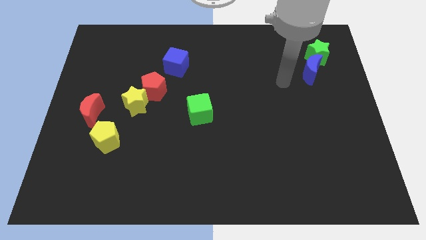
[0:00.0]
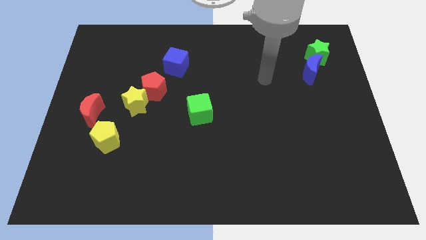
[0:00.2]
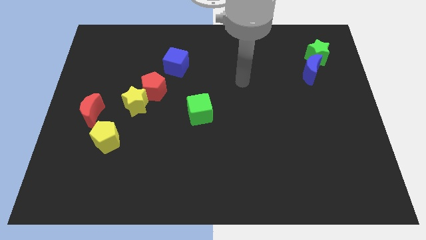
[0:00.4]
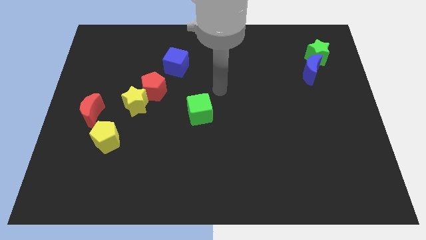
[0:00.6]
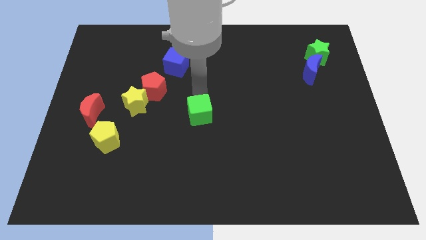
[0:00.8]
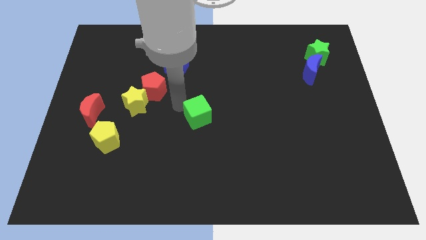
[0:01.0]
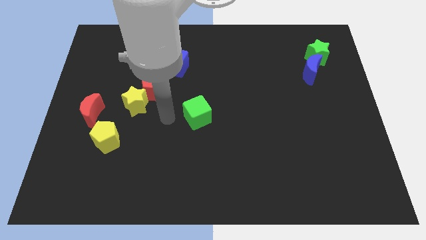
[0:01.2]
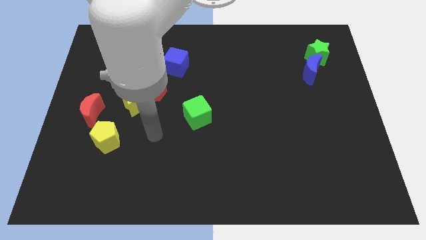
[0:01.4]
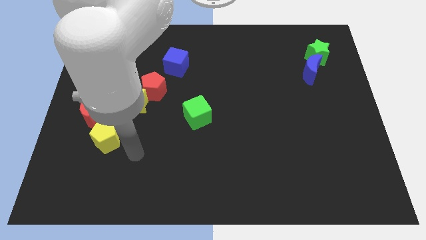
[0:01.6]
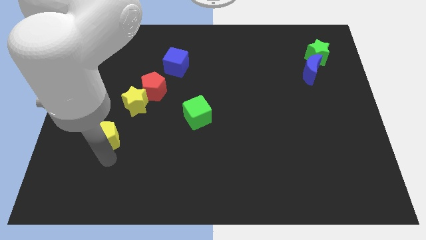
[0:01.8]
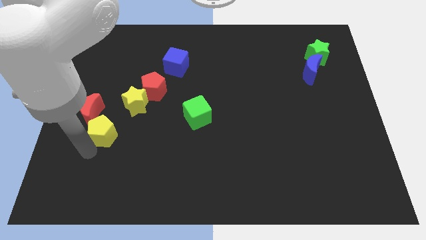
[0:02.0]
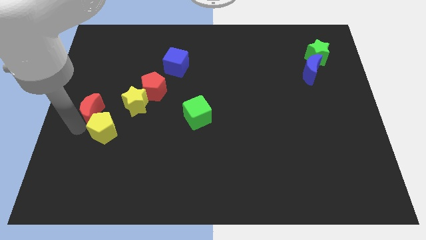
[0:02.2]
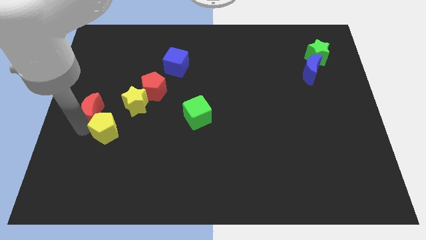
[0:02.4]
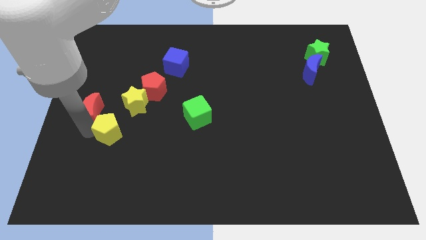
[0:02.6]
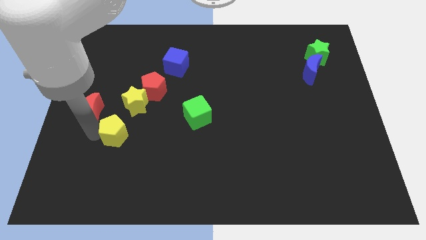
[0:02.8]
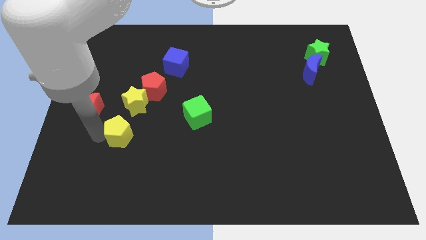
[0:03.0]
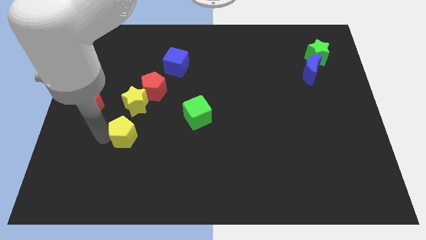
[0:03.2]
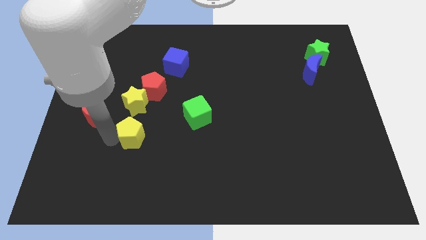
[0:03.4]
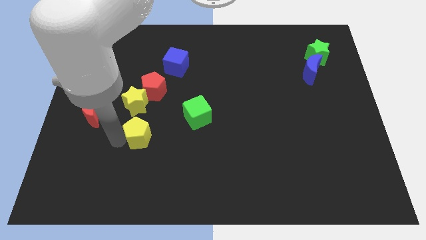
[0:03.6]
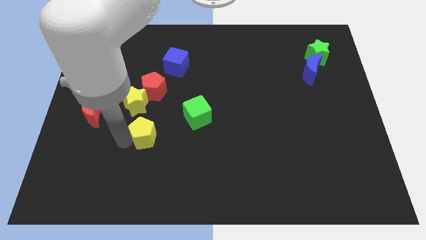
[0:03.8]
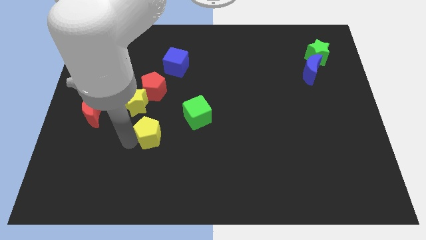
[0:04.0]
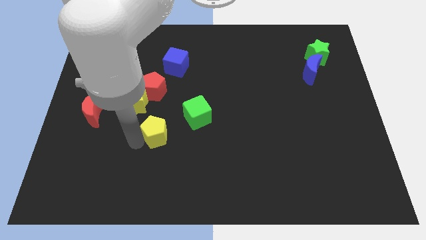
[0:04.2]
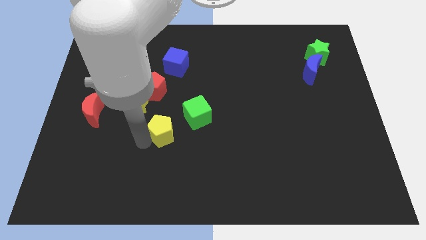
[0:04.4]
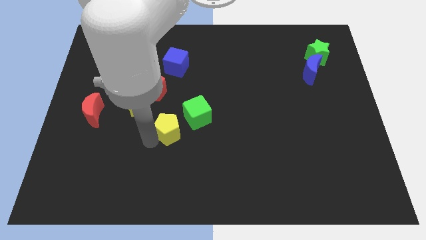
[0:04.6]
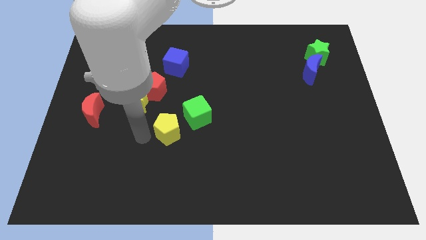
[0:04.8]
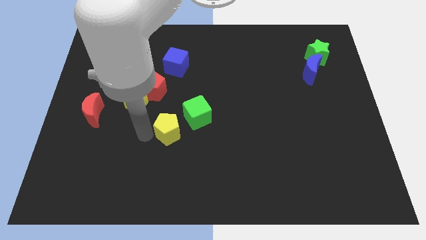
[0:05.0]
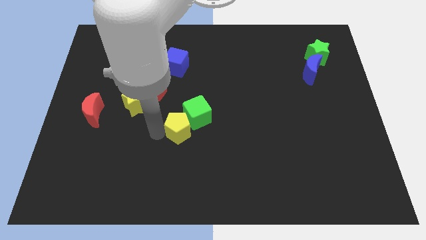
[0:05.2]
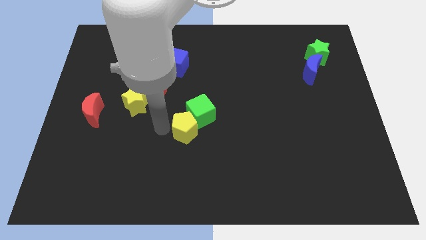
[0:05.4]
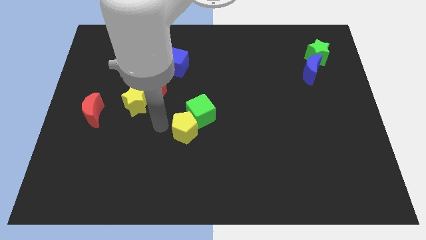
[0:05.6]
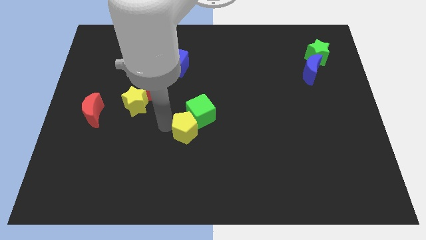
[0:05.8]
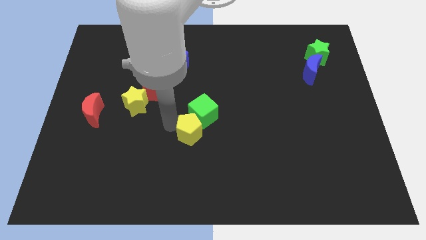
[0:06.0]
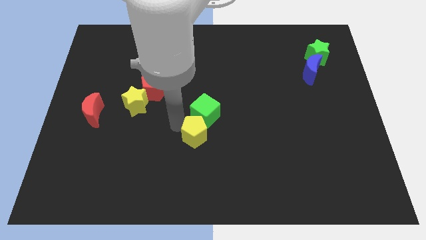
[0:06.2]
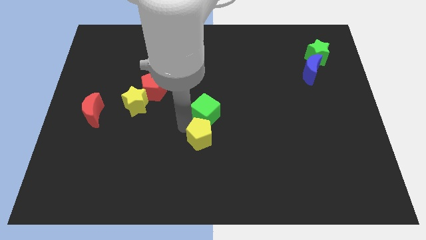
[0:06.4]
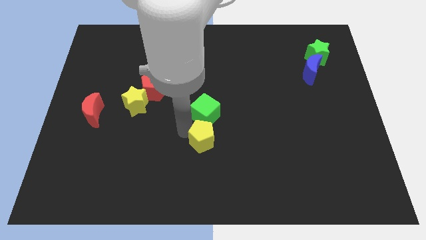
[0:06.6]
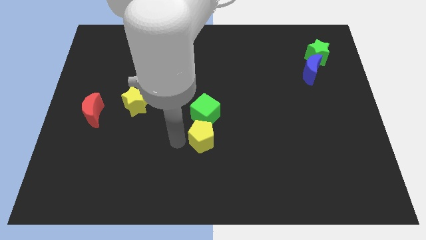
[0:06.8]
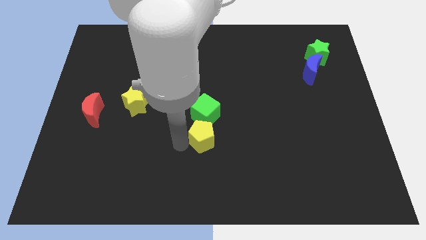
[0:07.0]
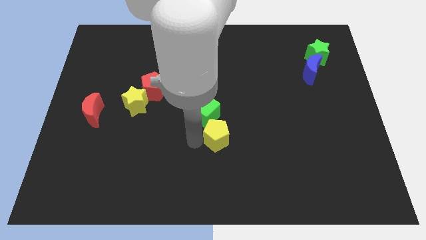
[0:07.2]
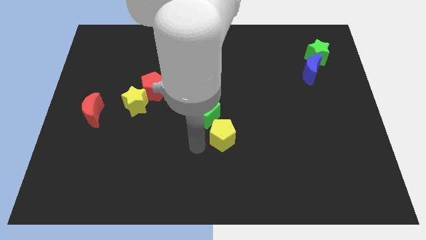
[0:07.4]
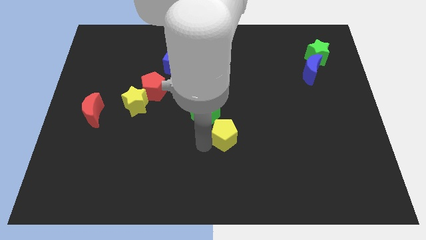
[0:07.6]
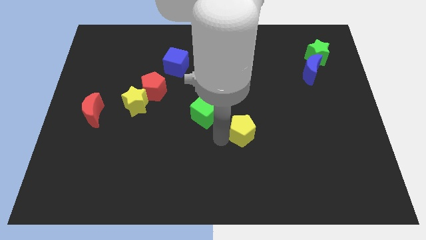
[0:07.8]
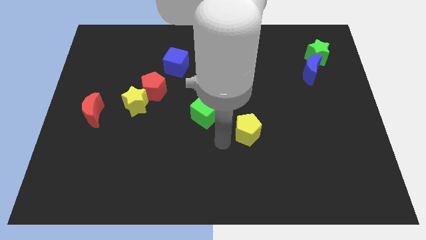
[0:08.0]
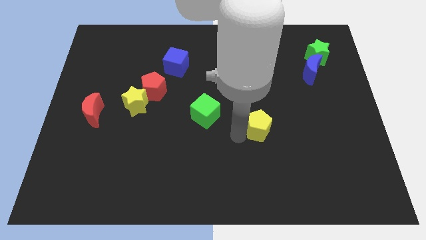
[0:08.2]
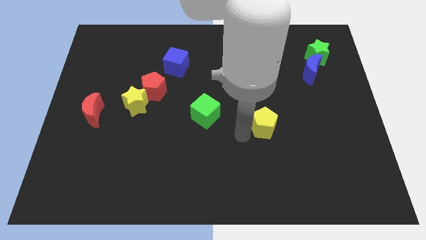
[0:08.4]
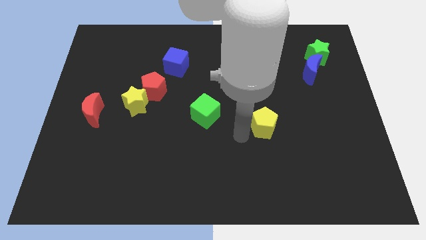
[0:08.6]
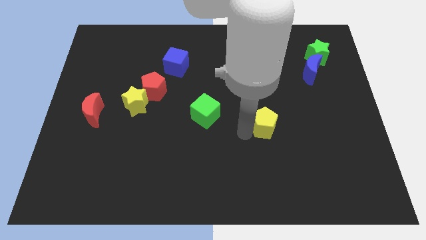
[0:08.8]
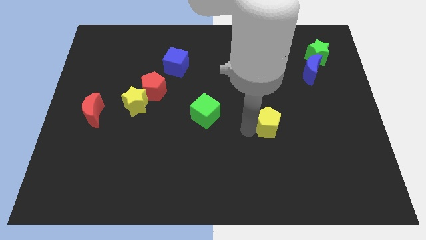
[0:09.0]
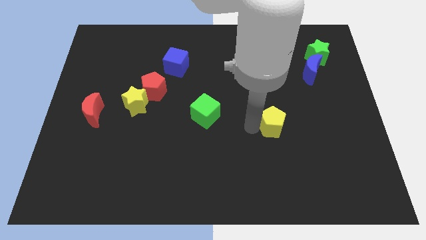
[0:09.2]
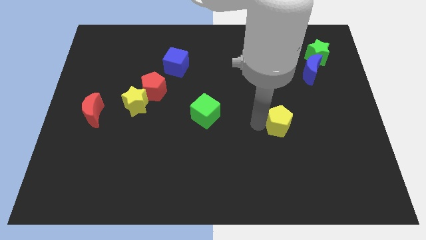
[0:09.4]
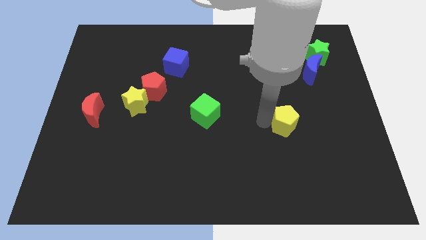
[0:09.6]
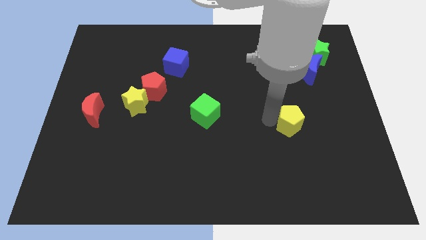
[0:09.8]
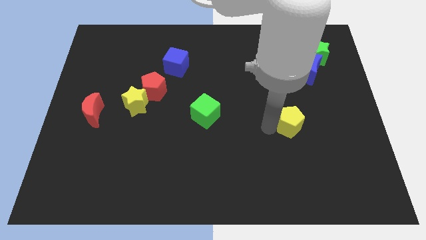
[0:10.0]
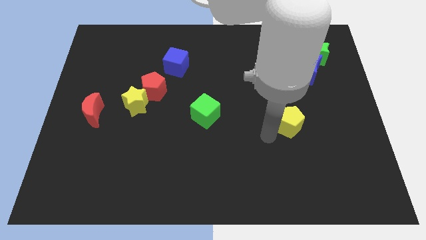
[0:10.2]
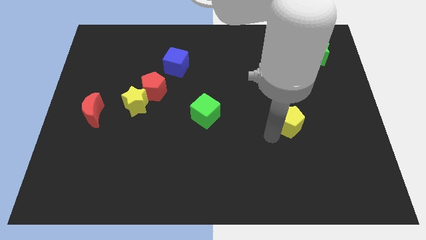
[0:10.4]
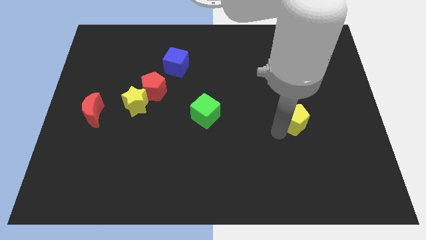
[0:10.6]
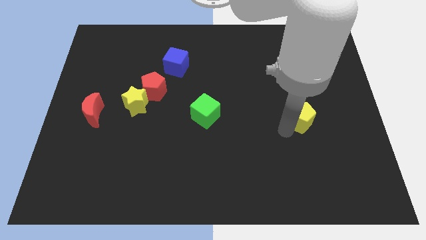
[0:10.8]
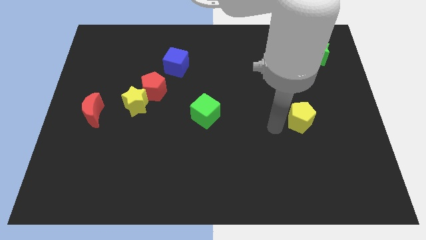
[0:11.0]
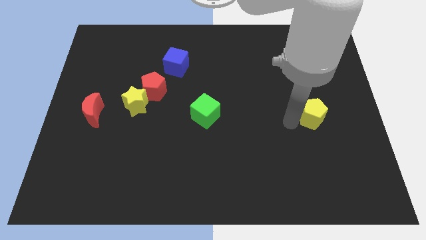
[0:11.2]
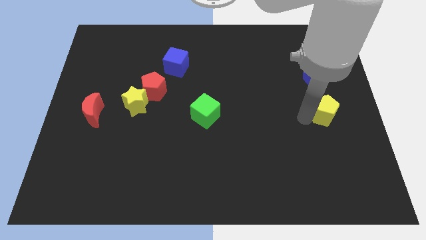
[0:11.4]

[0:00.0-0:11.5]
push the yellow pentagon to the right side

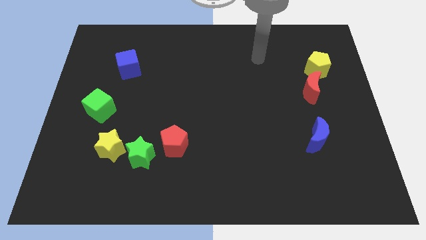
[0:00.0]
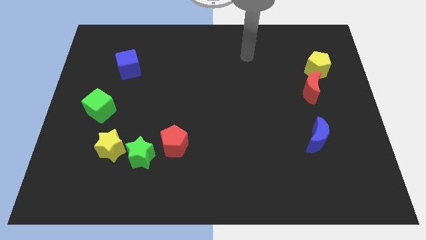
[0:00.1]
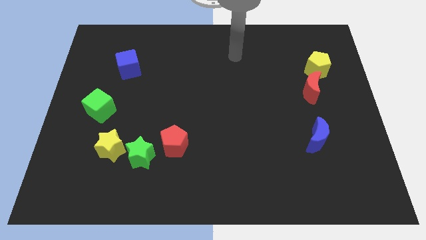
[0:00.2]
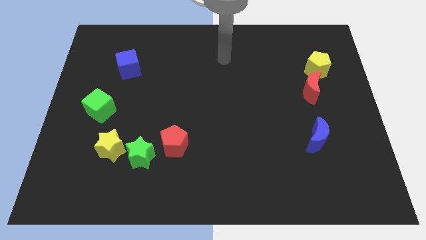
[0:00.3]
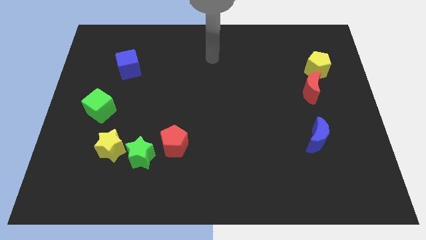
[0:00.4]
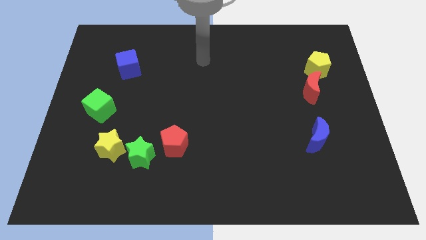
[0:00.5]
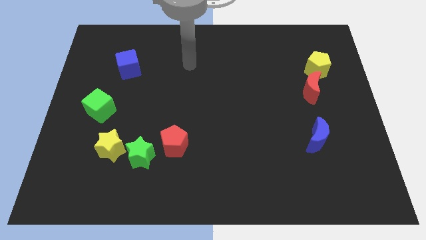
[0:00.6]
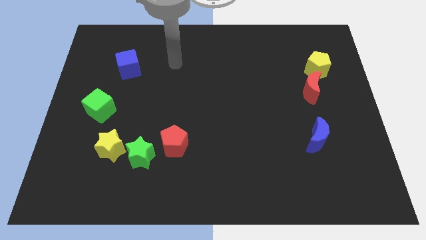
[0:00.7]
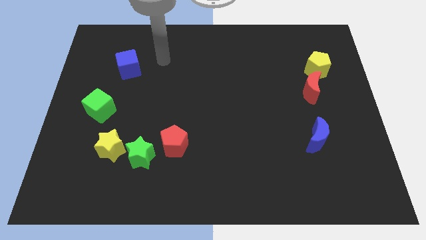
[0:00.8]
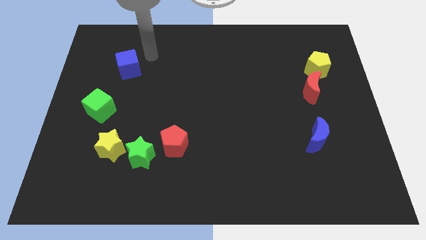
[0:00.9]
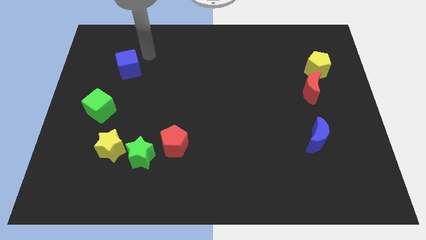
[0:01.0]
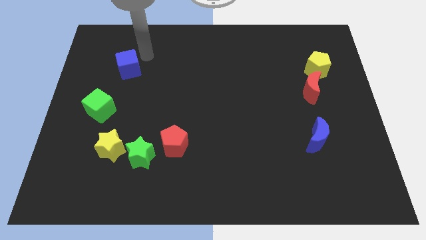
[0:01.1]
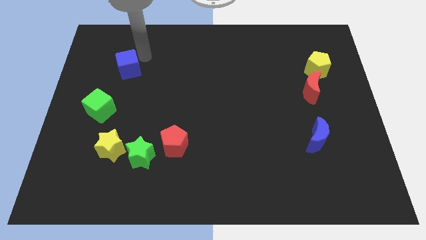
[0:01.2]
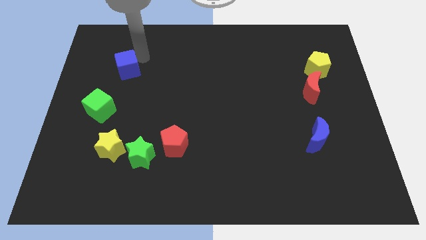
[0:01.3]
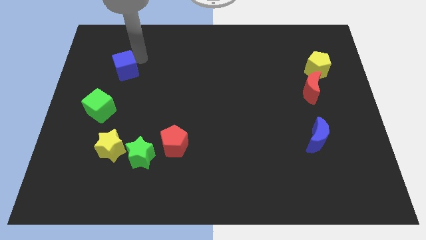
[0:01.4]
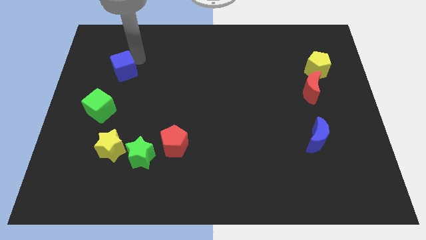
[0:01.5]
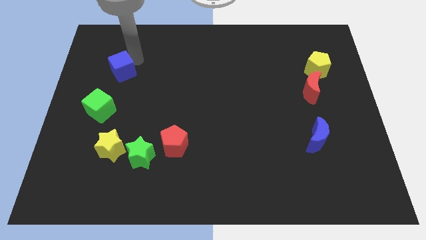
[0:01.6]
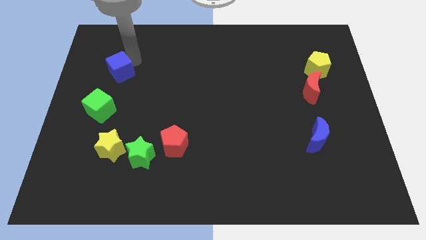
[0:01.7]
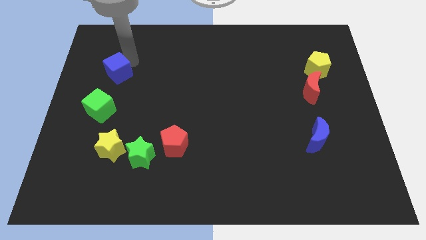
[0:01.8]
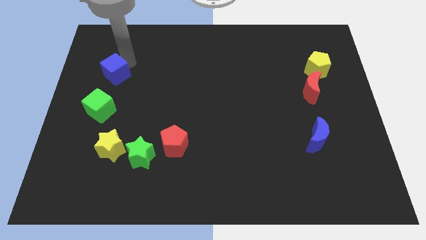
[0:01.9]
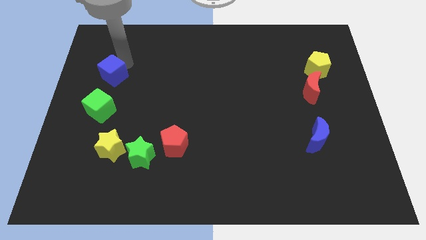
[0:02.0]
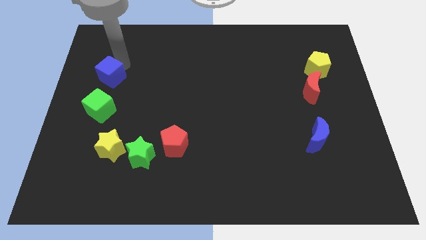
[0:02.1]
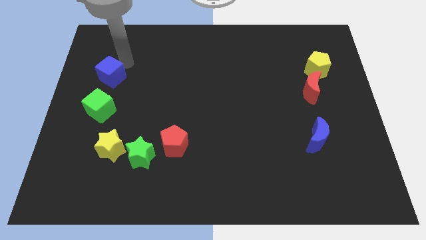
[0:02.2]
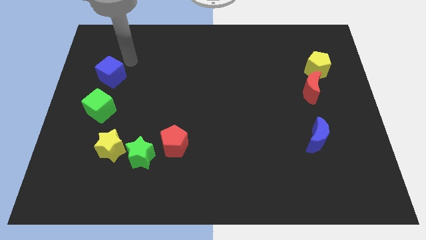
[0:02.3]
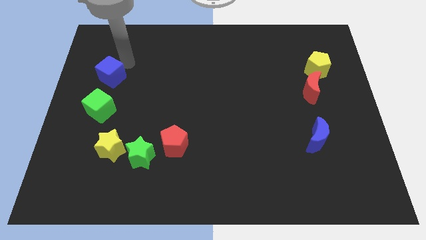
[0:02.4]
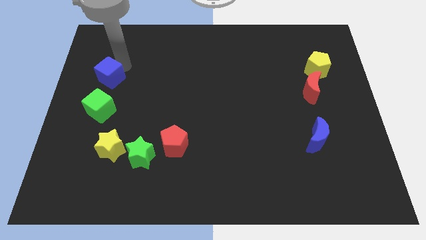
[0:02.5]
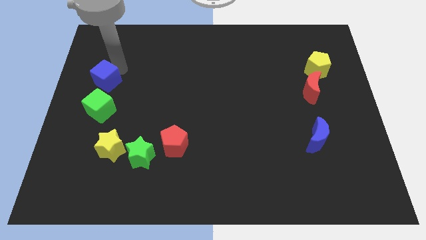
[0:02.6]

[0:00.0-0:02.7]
push the blue cube to the left side of the board
